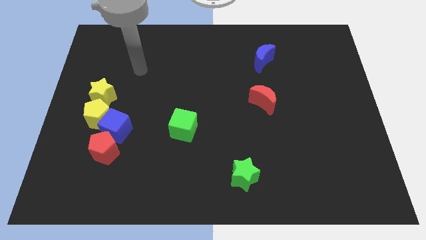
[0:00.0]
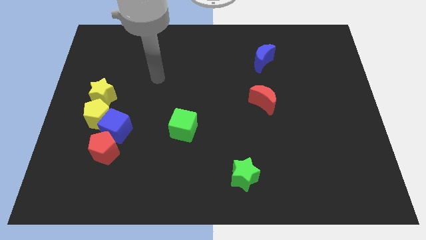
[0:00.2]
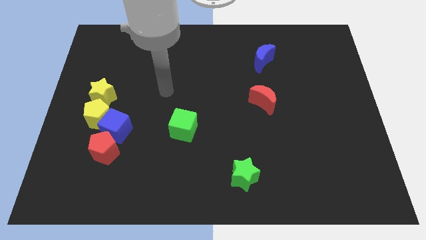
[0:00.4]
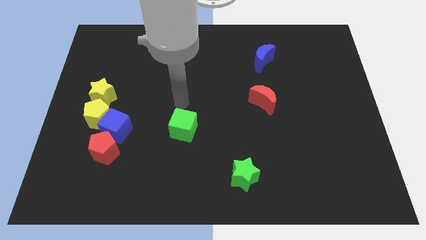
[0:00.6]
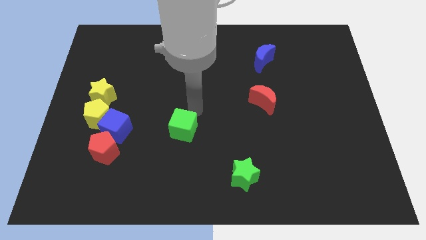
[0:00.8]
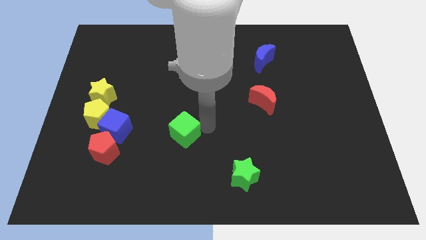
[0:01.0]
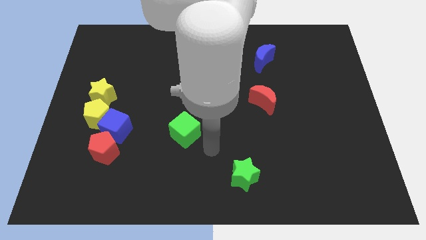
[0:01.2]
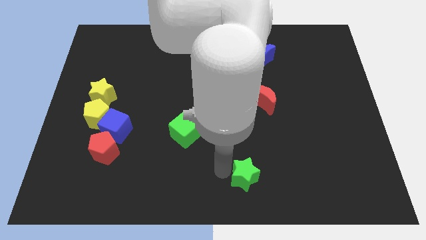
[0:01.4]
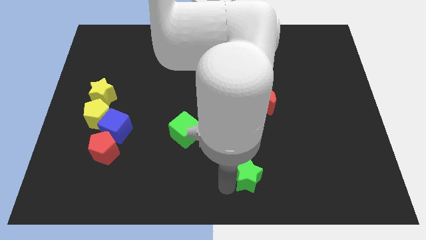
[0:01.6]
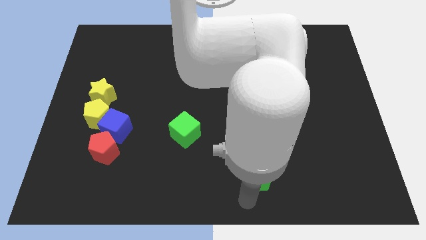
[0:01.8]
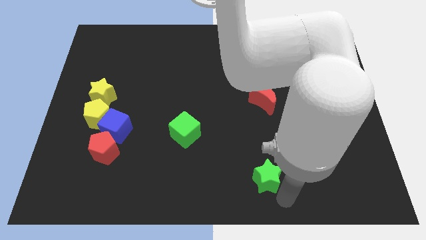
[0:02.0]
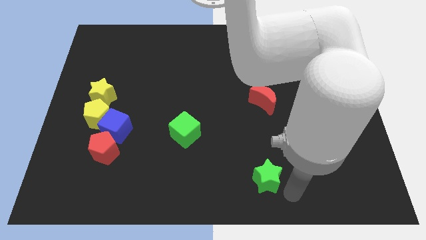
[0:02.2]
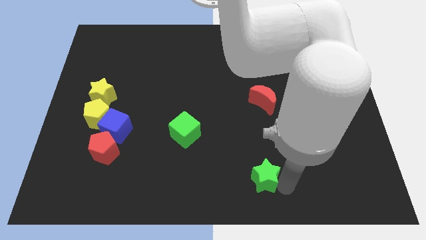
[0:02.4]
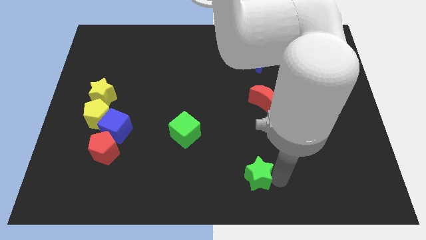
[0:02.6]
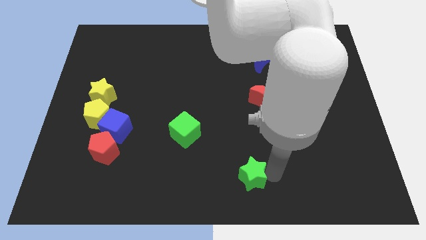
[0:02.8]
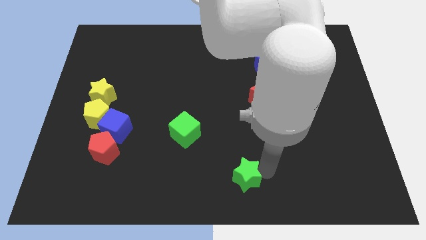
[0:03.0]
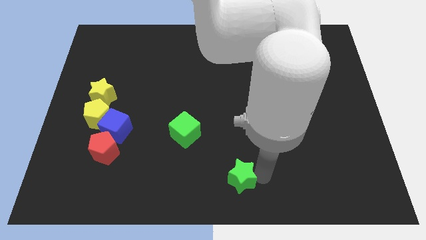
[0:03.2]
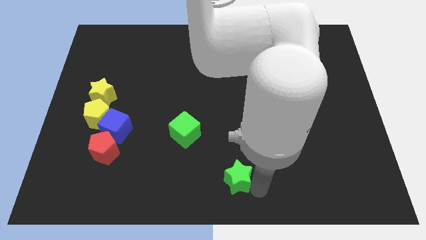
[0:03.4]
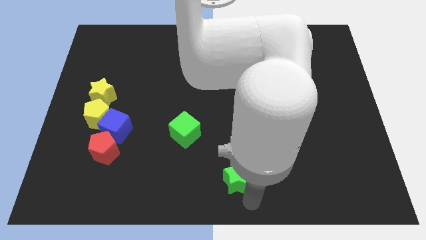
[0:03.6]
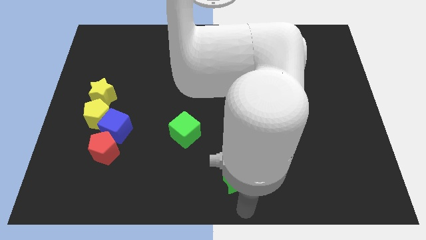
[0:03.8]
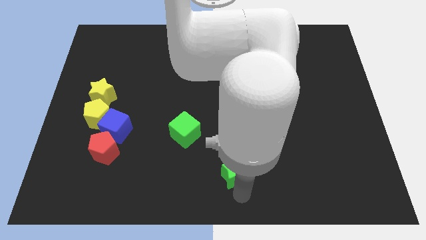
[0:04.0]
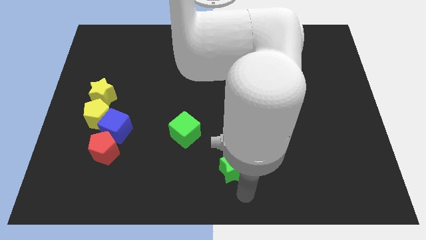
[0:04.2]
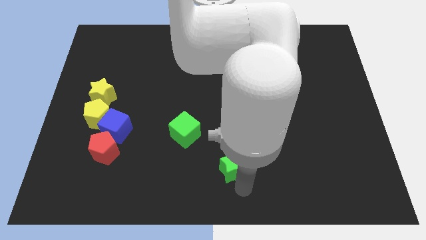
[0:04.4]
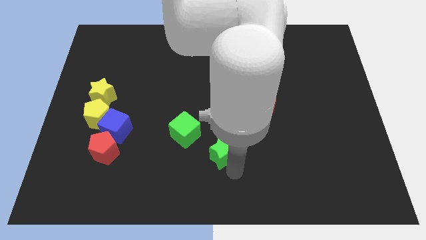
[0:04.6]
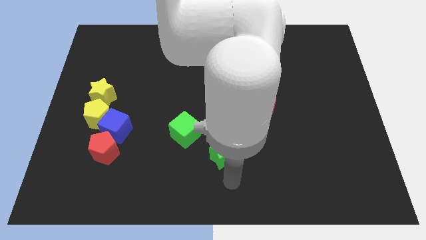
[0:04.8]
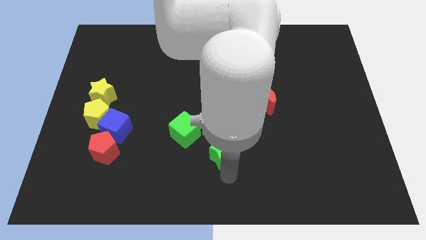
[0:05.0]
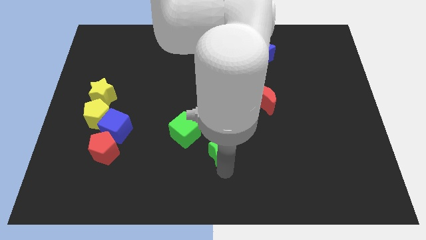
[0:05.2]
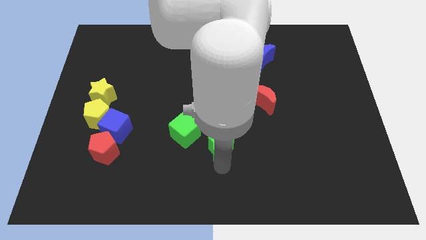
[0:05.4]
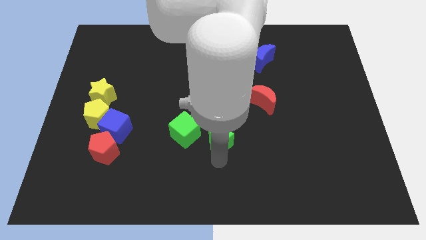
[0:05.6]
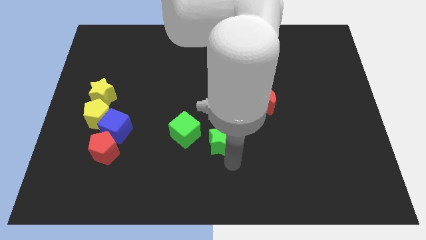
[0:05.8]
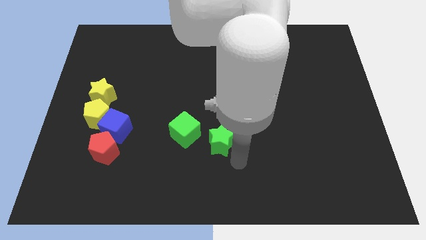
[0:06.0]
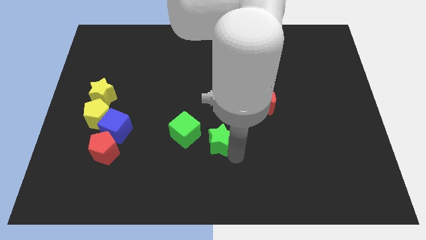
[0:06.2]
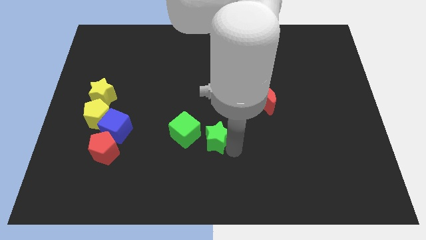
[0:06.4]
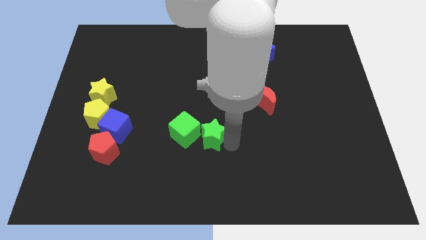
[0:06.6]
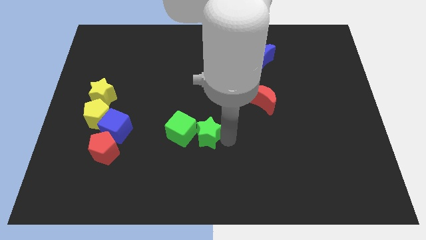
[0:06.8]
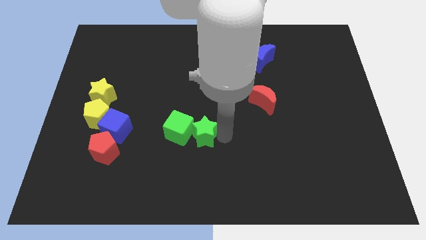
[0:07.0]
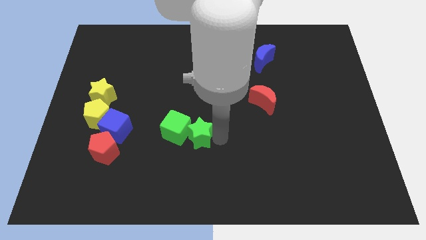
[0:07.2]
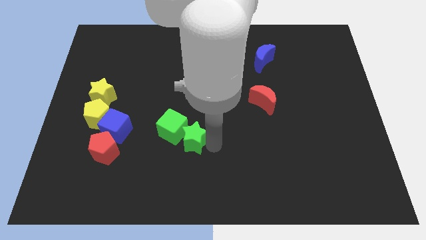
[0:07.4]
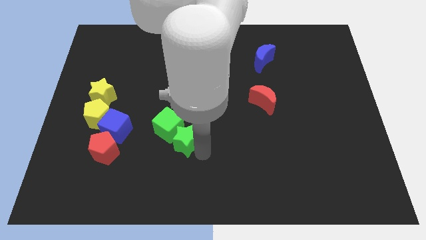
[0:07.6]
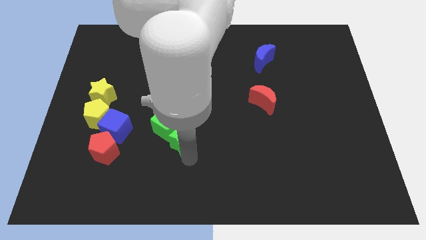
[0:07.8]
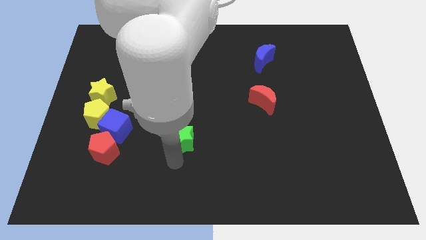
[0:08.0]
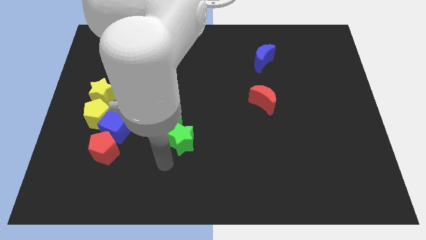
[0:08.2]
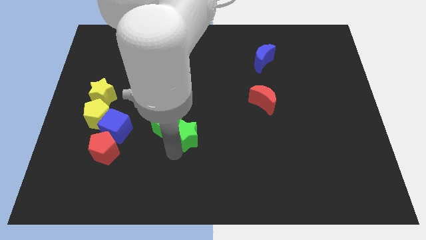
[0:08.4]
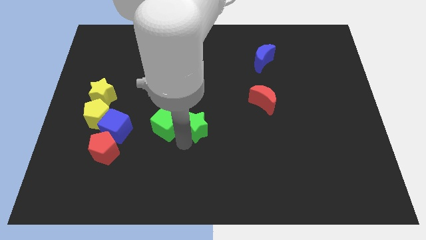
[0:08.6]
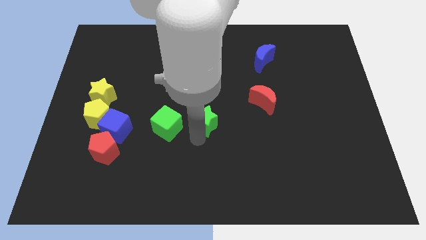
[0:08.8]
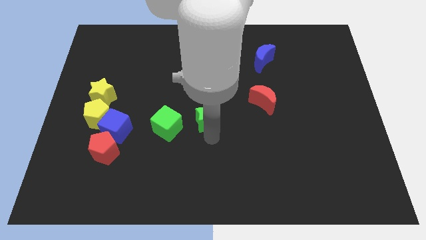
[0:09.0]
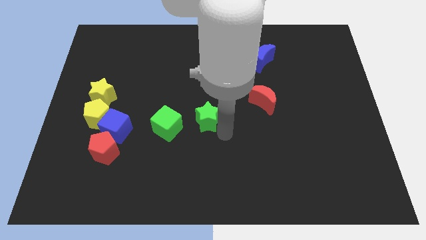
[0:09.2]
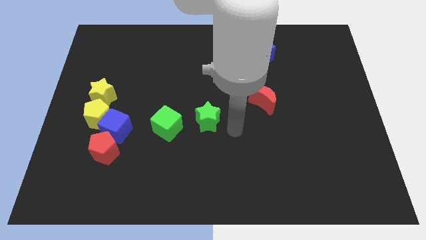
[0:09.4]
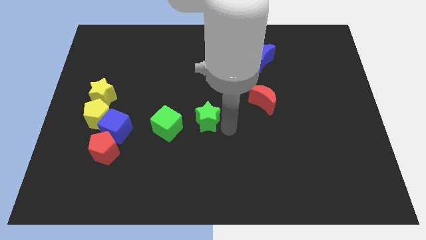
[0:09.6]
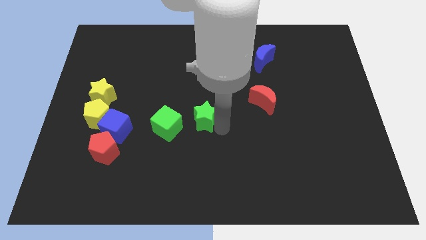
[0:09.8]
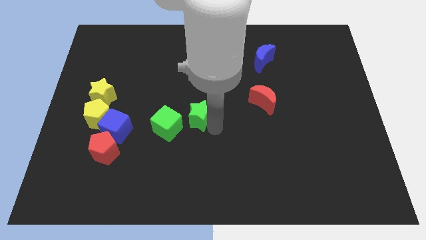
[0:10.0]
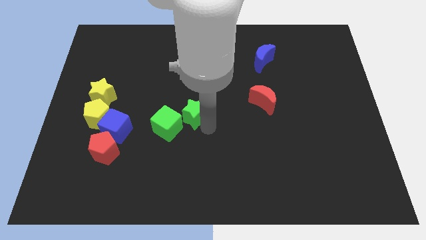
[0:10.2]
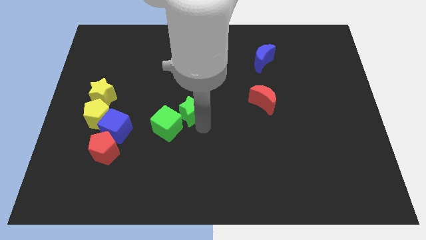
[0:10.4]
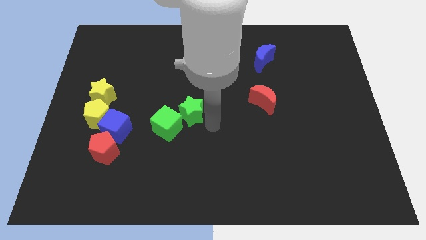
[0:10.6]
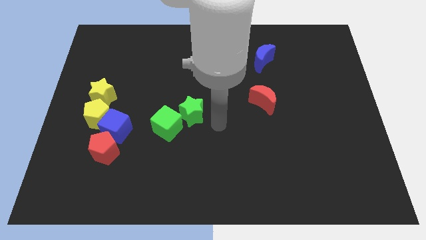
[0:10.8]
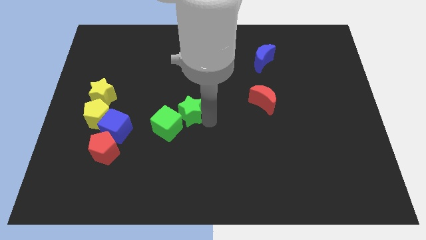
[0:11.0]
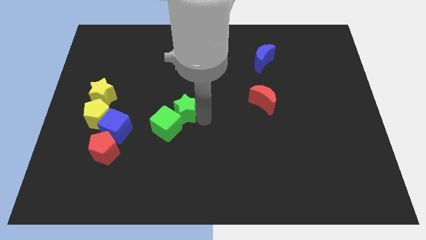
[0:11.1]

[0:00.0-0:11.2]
move the green star upwards and to the left diagonally

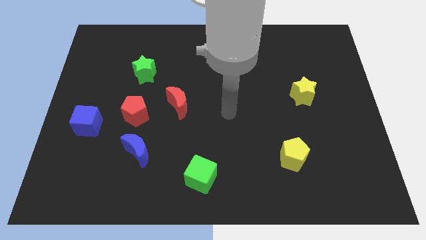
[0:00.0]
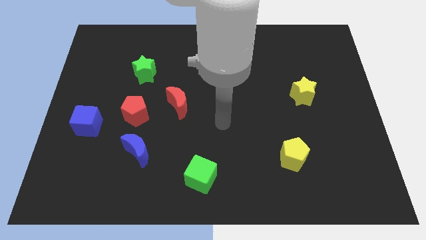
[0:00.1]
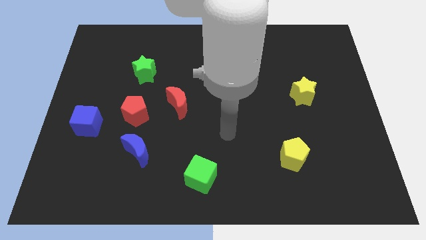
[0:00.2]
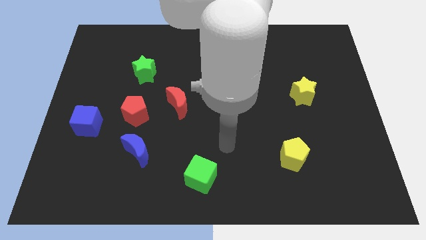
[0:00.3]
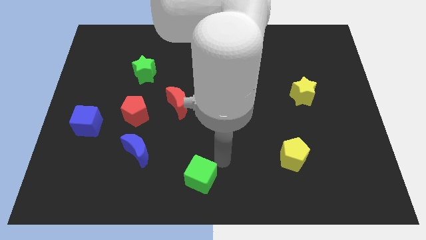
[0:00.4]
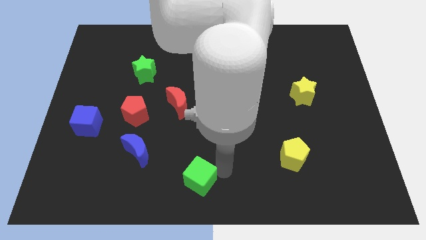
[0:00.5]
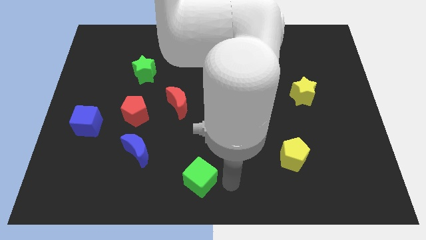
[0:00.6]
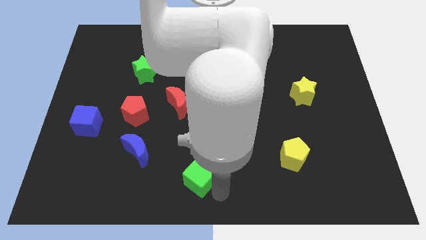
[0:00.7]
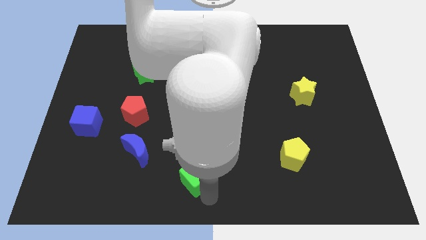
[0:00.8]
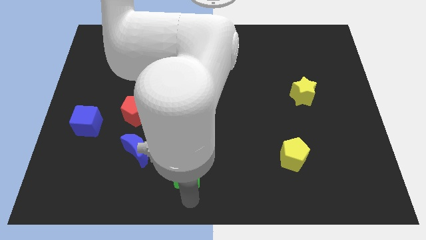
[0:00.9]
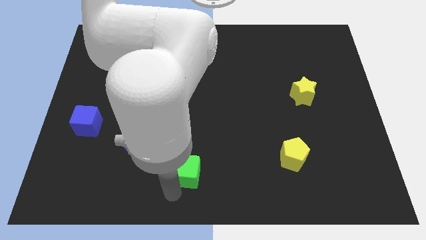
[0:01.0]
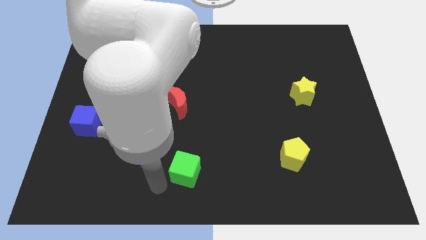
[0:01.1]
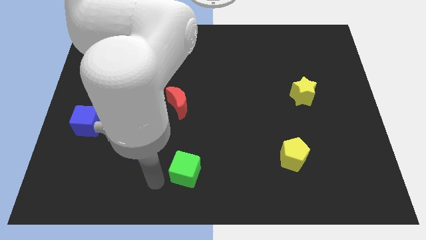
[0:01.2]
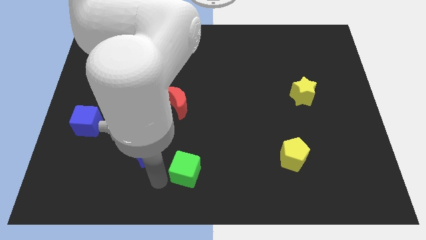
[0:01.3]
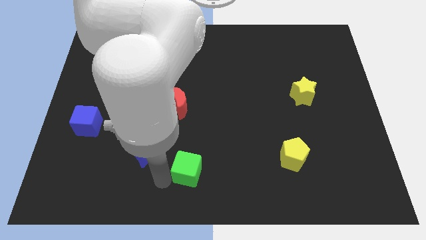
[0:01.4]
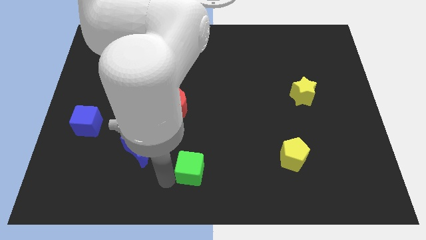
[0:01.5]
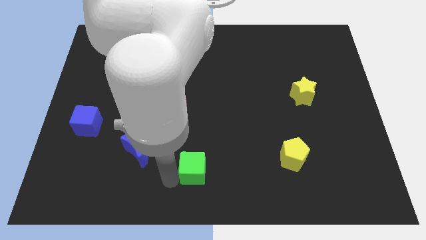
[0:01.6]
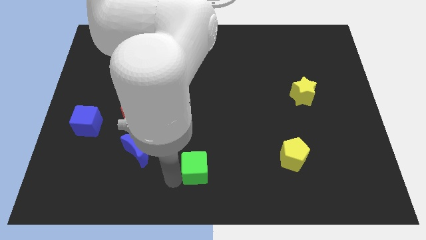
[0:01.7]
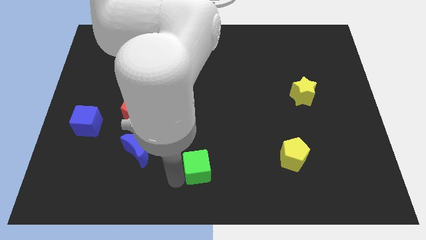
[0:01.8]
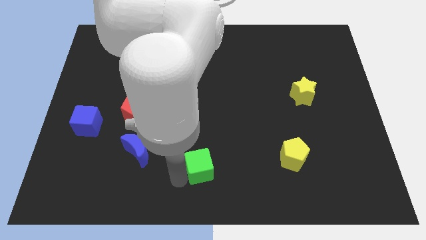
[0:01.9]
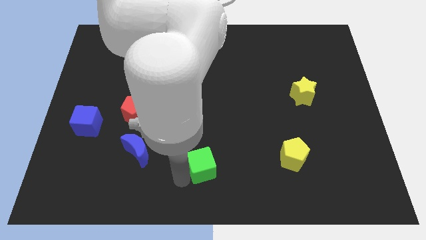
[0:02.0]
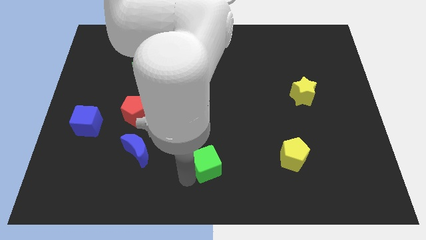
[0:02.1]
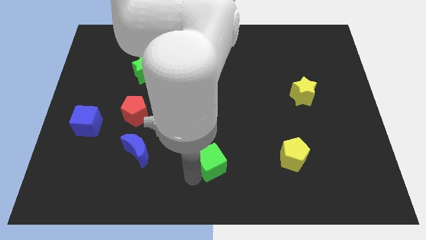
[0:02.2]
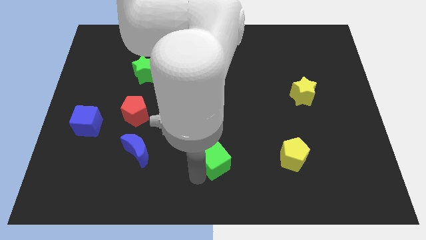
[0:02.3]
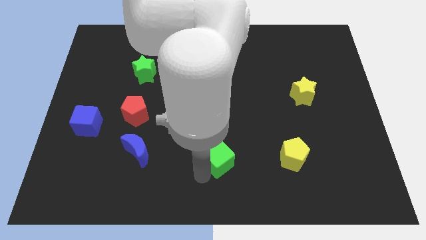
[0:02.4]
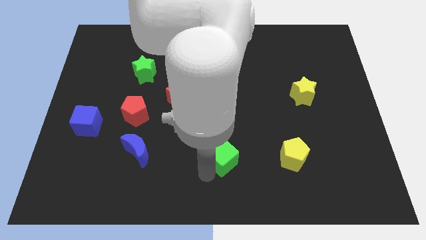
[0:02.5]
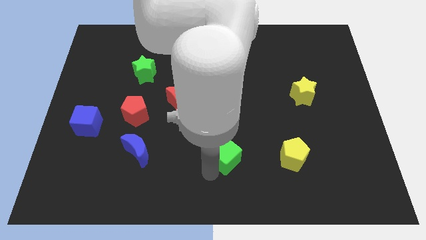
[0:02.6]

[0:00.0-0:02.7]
slide the green cube up and to the right diagonally slightly
